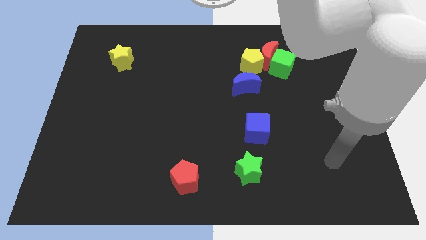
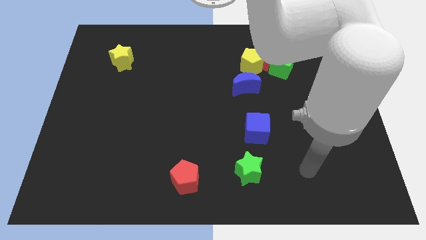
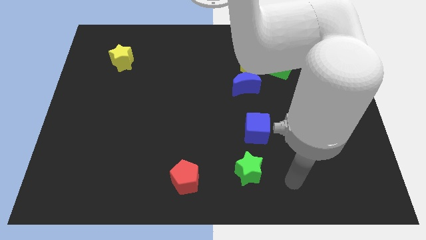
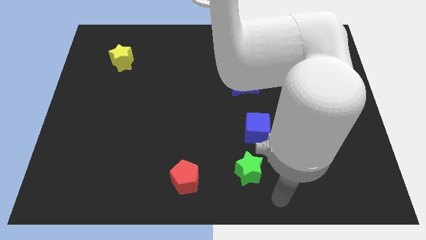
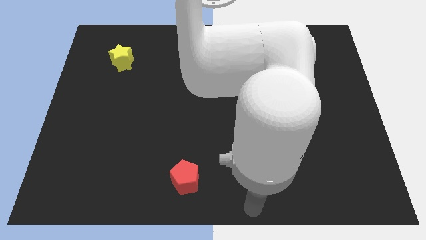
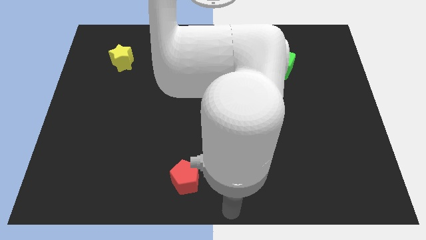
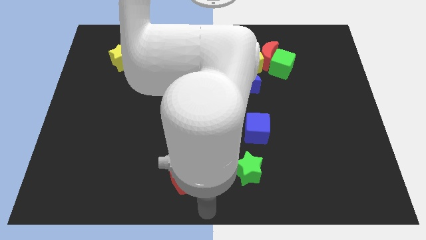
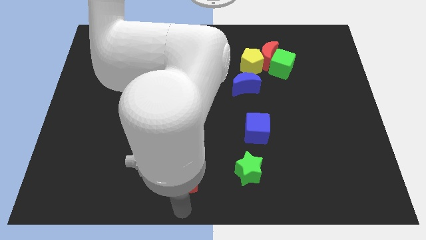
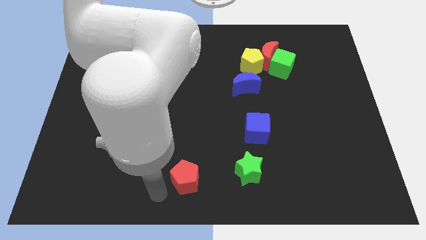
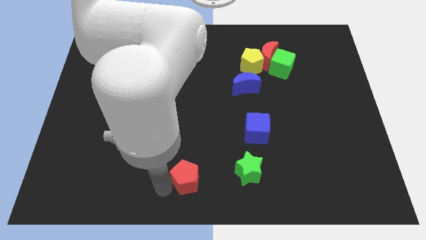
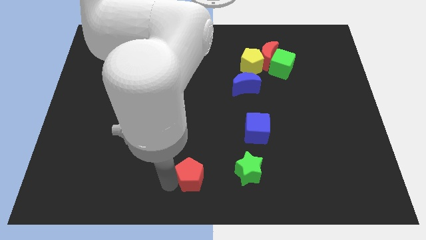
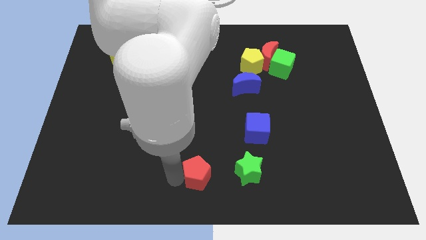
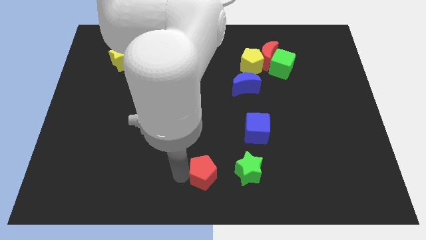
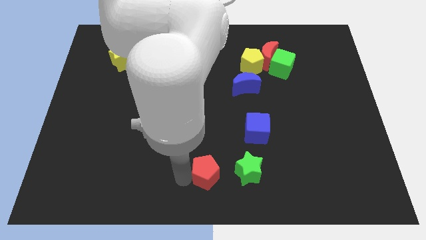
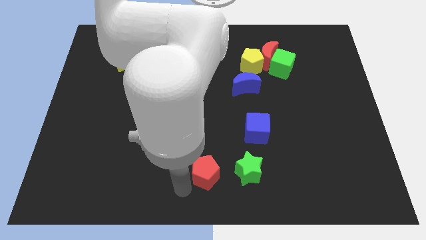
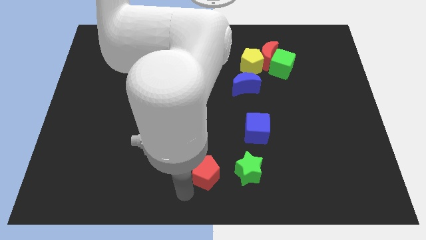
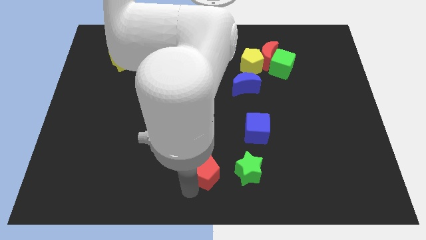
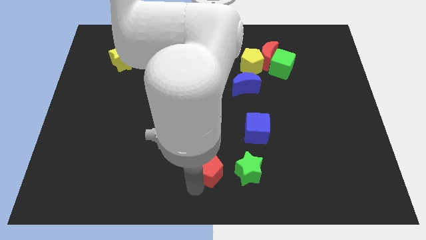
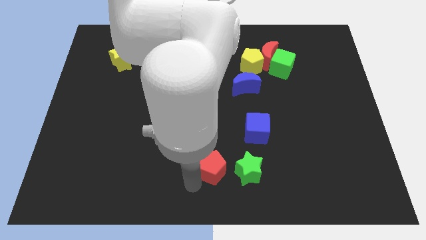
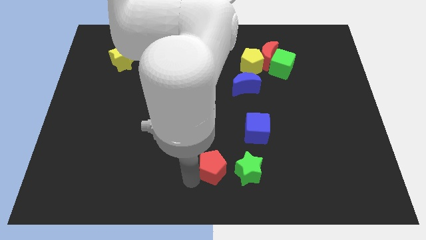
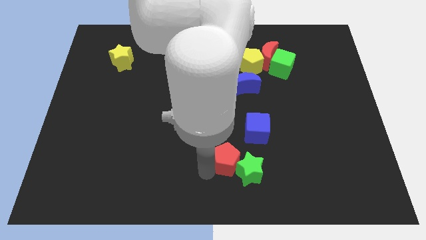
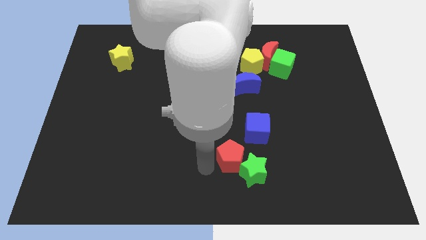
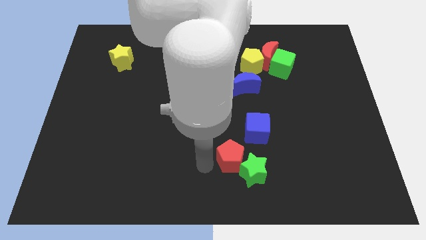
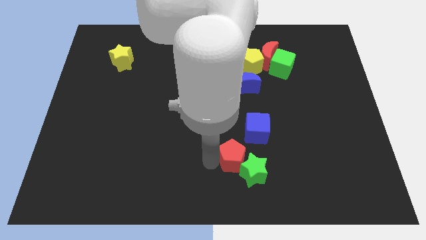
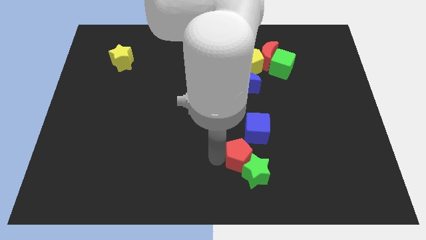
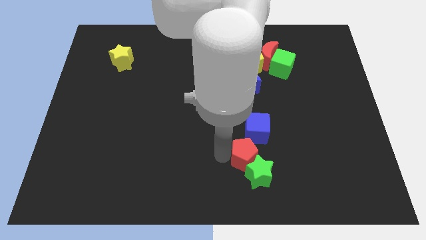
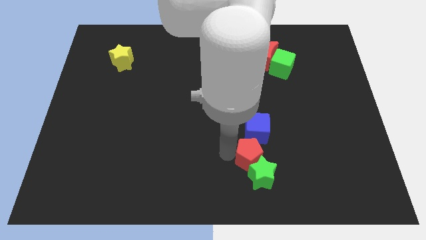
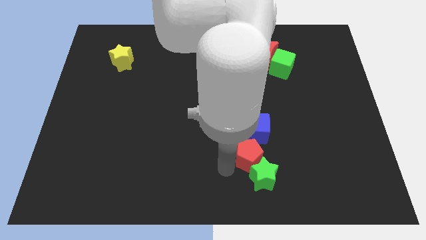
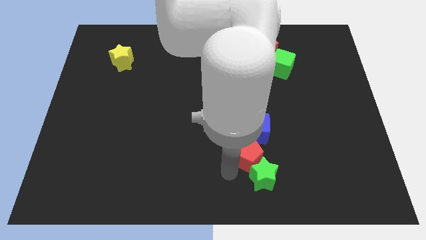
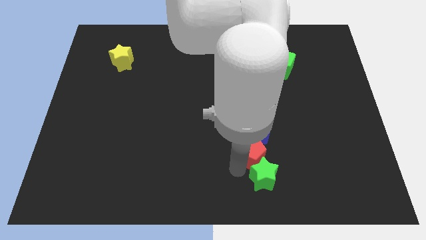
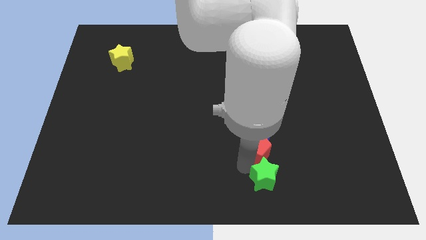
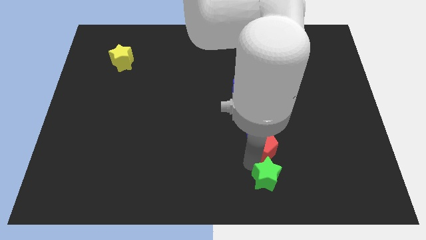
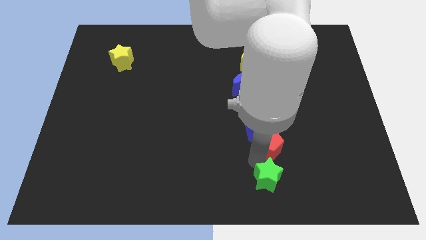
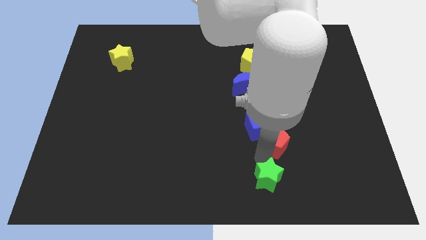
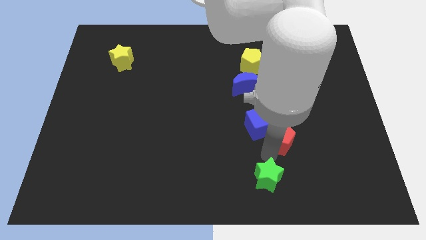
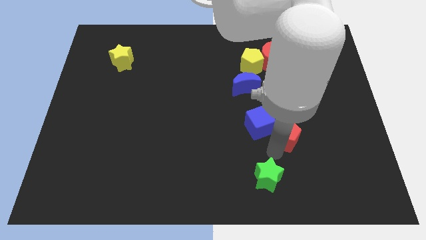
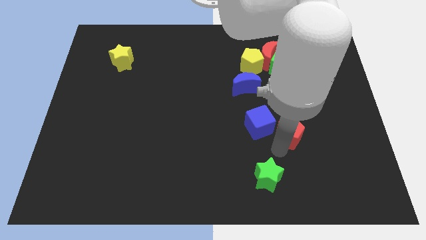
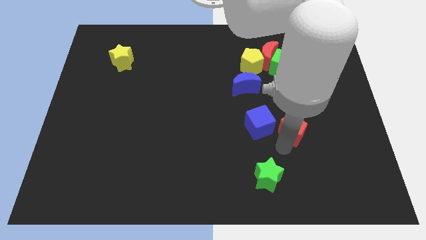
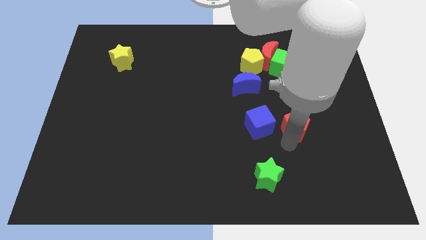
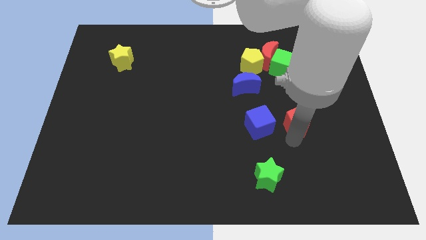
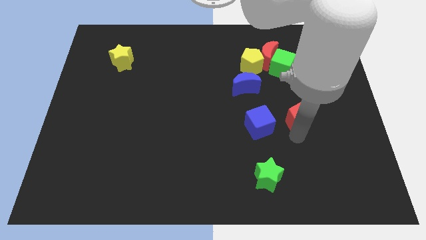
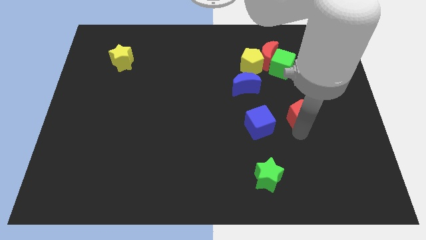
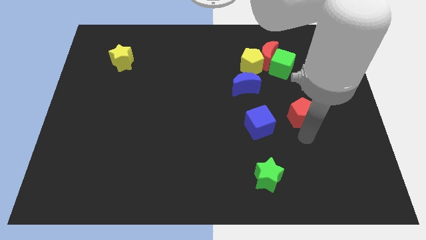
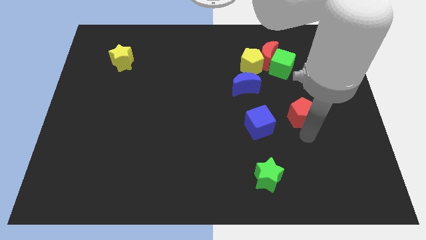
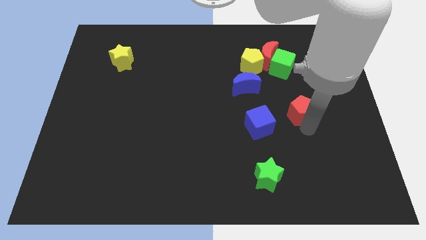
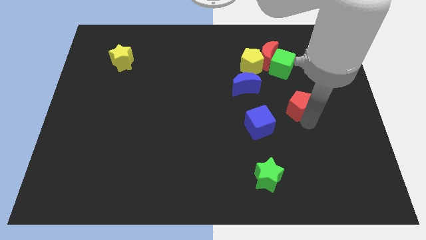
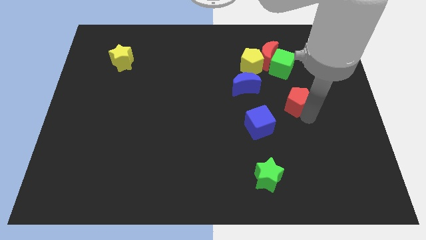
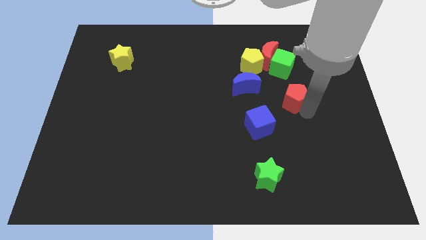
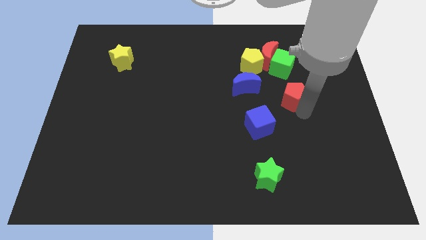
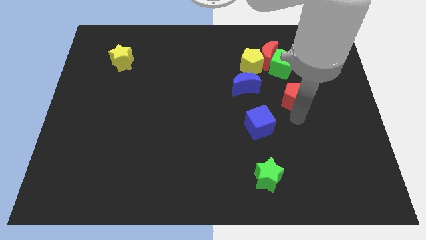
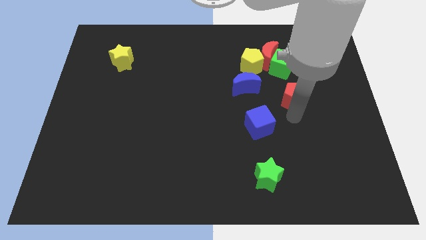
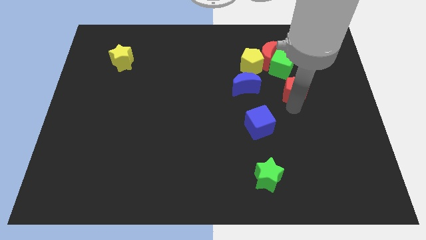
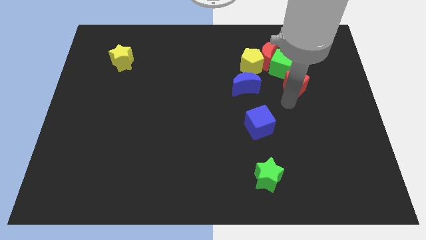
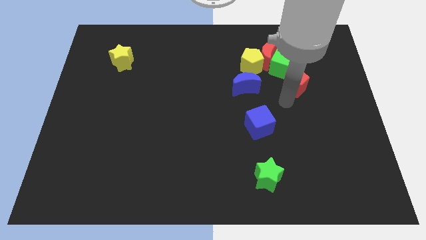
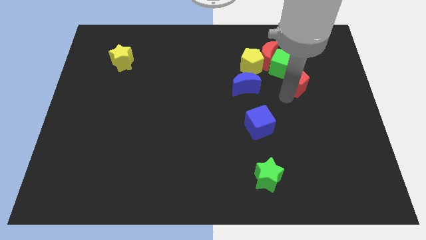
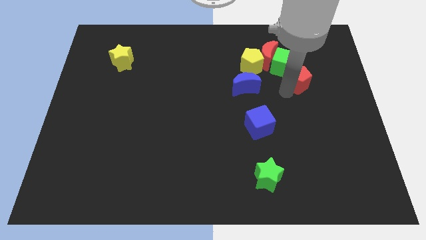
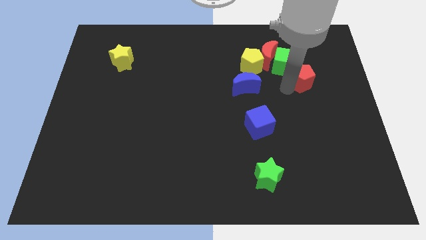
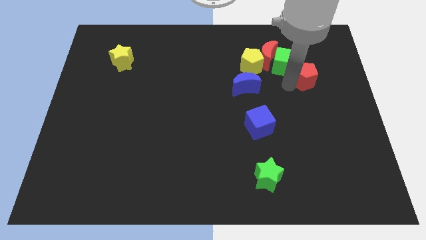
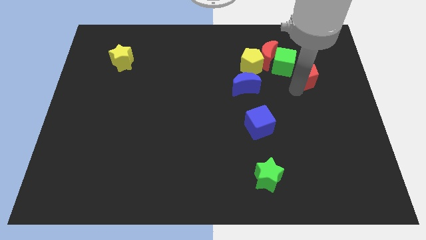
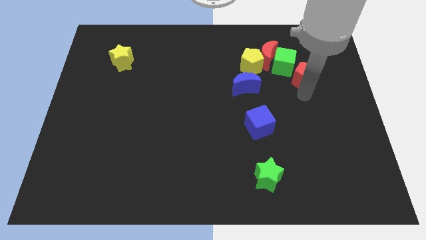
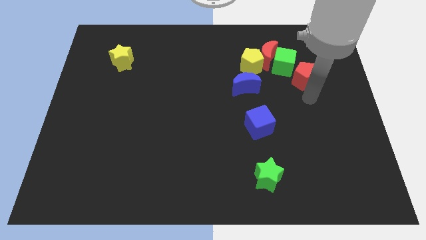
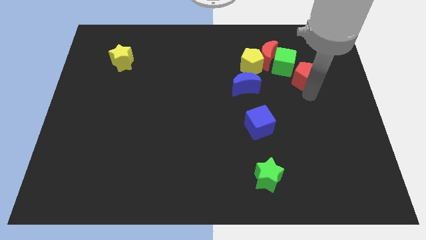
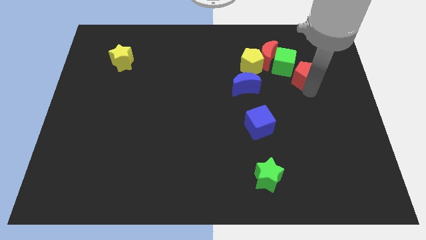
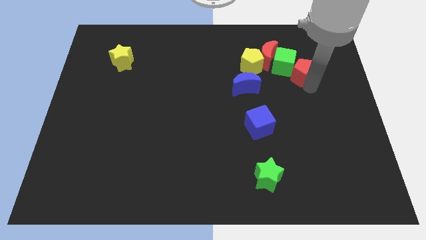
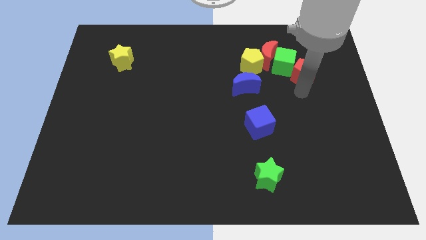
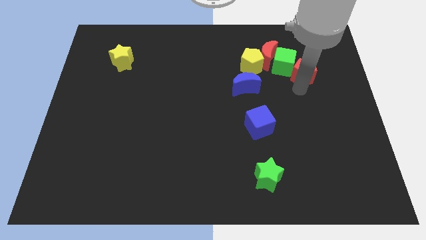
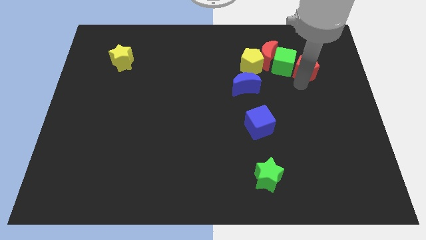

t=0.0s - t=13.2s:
push the red pentagon to the right of the red moon
